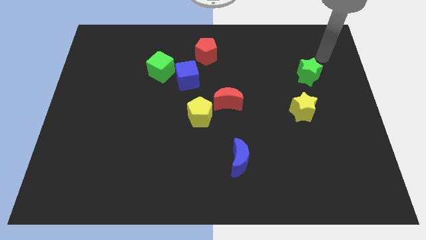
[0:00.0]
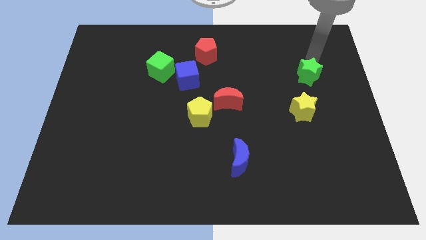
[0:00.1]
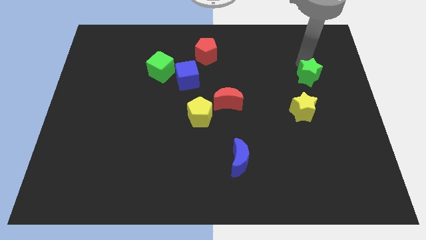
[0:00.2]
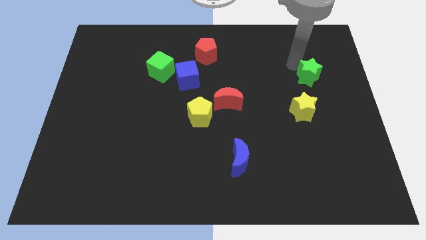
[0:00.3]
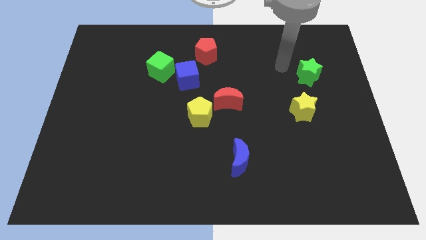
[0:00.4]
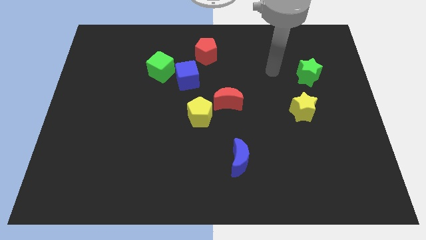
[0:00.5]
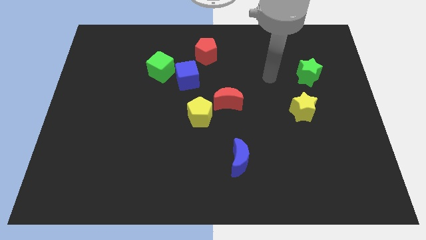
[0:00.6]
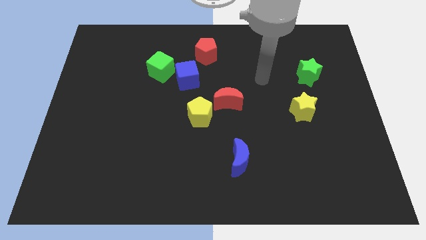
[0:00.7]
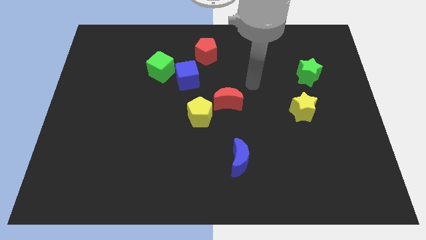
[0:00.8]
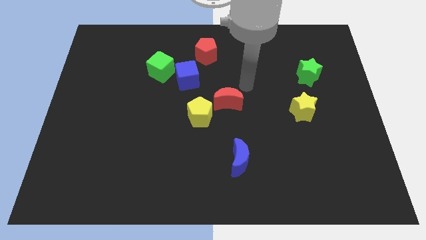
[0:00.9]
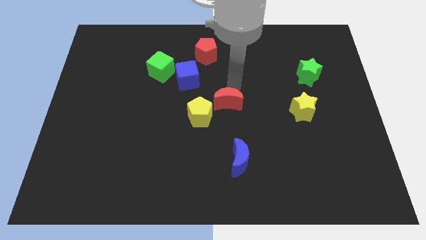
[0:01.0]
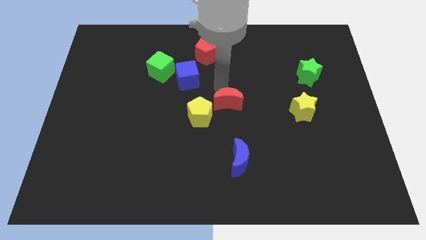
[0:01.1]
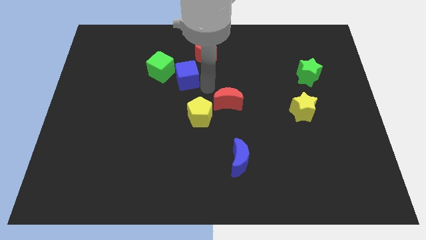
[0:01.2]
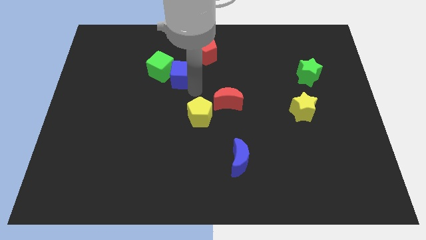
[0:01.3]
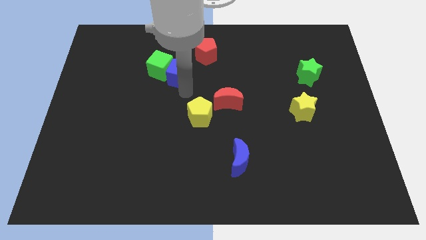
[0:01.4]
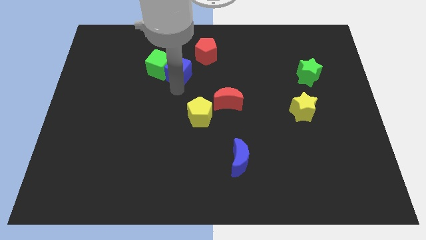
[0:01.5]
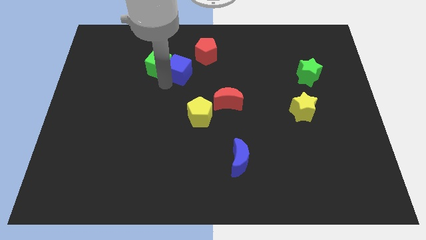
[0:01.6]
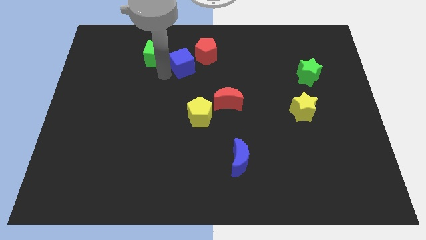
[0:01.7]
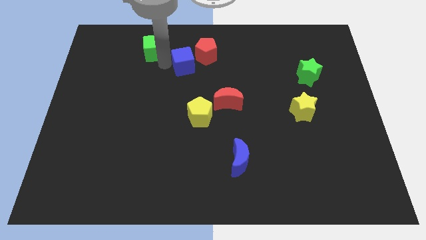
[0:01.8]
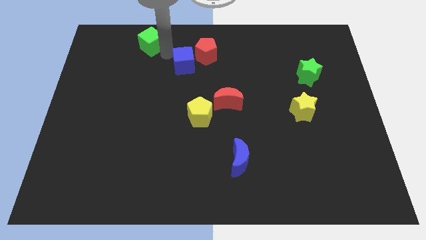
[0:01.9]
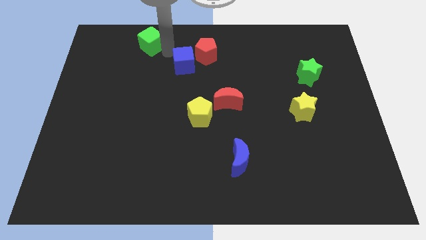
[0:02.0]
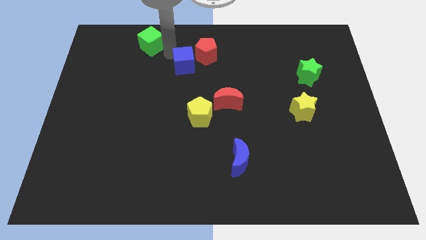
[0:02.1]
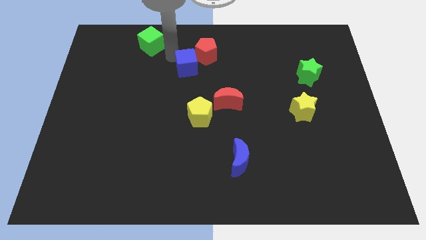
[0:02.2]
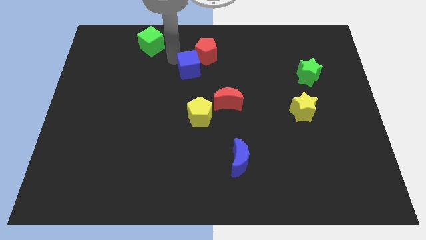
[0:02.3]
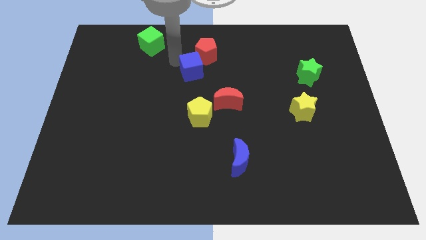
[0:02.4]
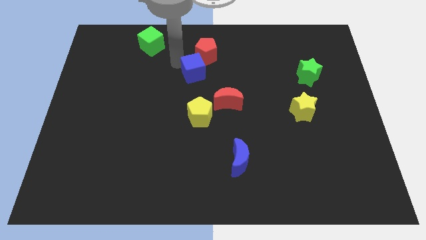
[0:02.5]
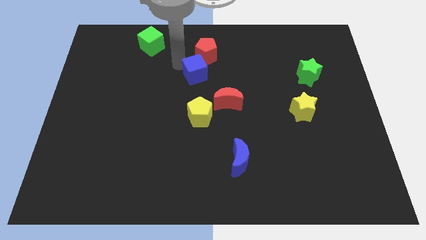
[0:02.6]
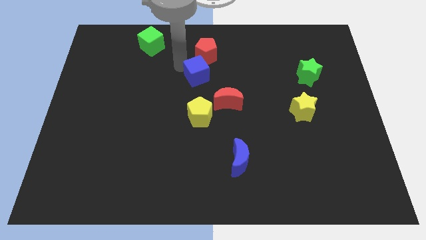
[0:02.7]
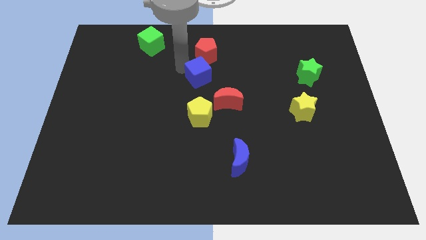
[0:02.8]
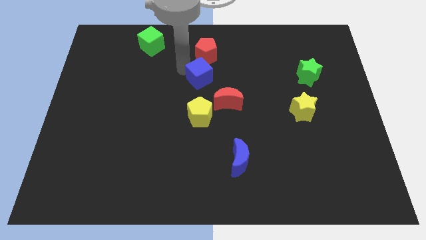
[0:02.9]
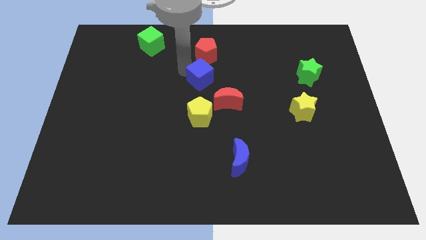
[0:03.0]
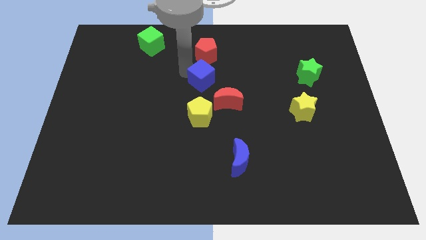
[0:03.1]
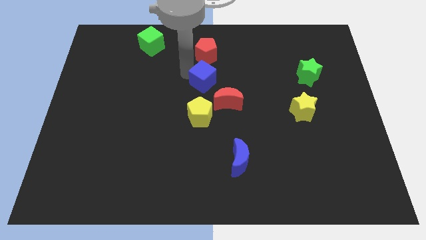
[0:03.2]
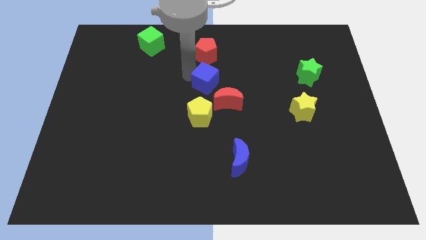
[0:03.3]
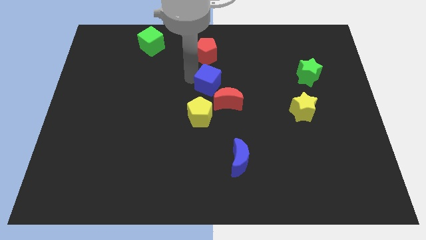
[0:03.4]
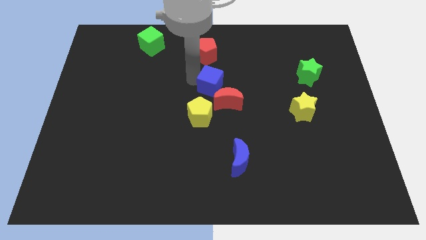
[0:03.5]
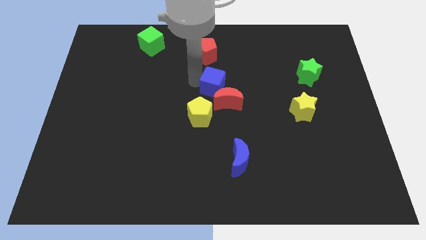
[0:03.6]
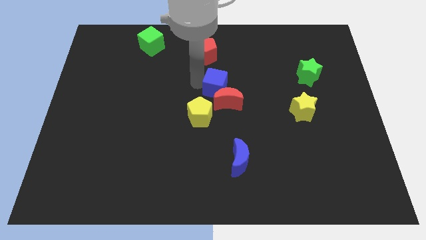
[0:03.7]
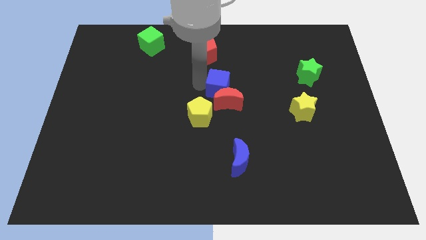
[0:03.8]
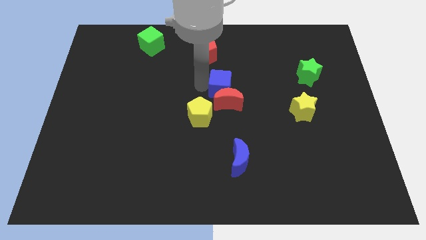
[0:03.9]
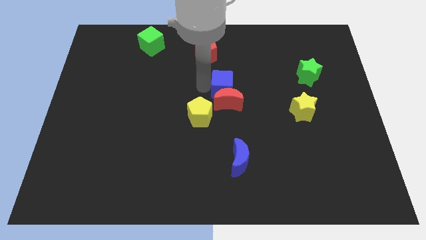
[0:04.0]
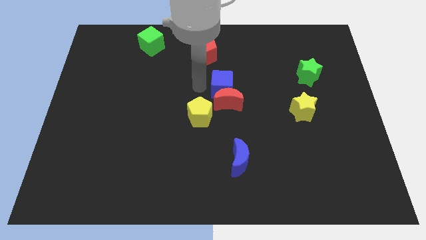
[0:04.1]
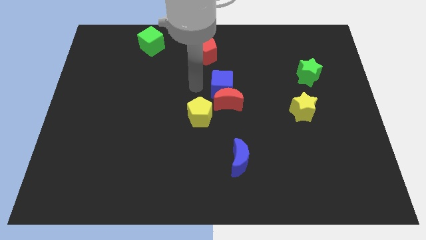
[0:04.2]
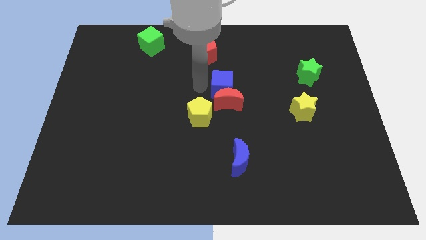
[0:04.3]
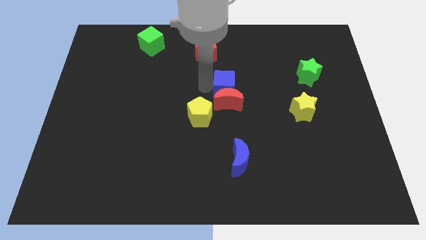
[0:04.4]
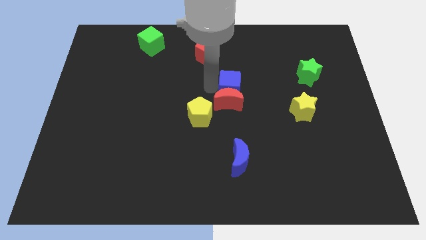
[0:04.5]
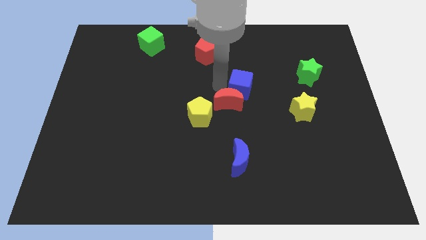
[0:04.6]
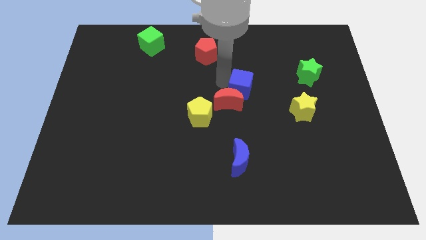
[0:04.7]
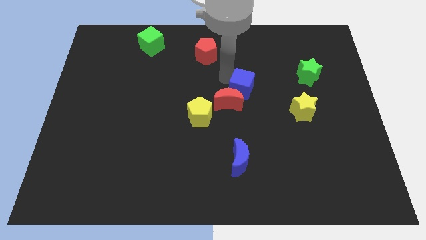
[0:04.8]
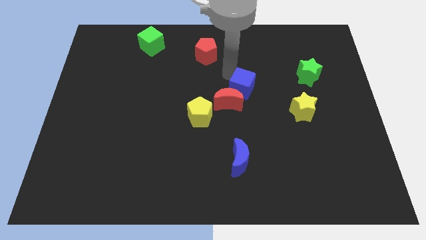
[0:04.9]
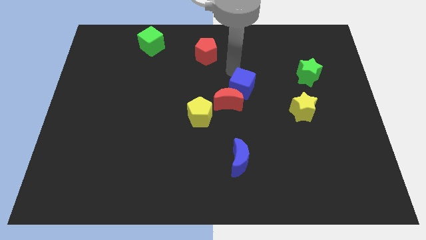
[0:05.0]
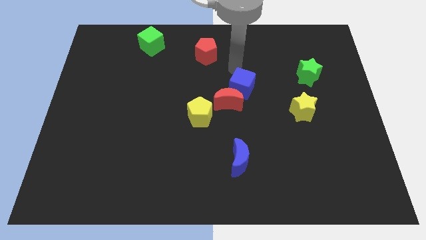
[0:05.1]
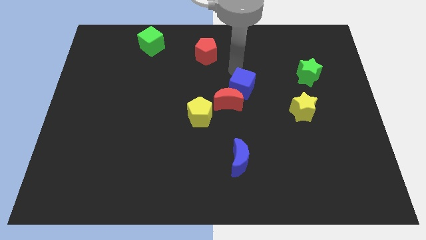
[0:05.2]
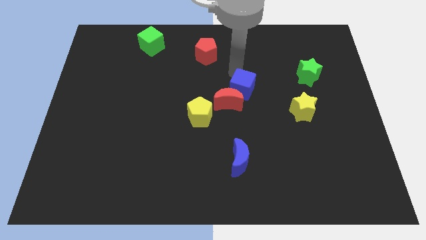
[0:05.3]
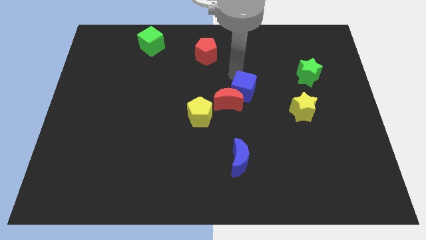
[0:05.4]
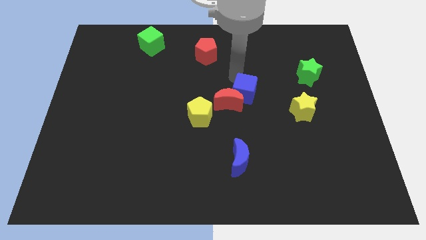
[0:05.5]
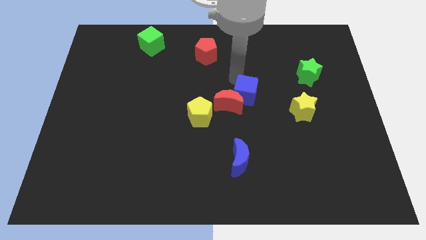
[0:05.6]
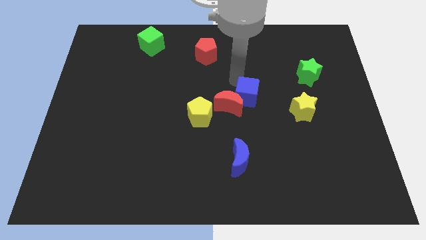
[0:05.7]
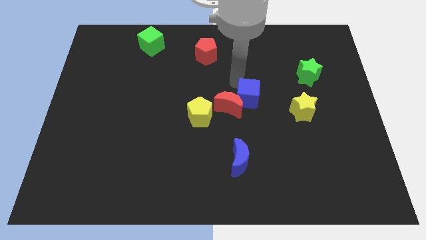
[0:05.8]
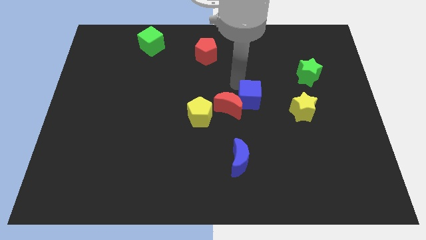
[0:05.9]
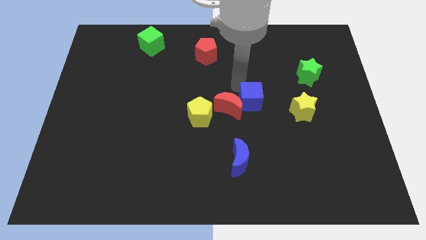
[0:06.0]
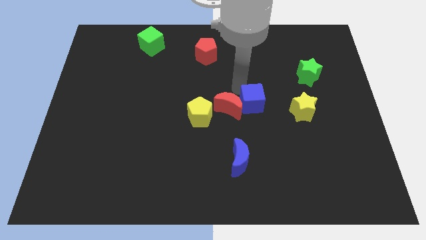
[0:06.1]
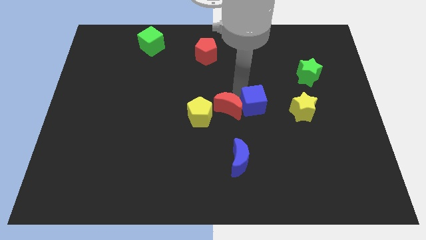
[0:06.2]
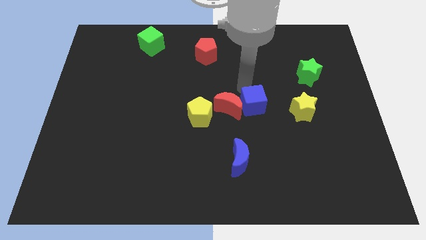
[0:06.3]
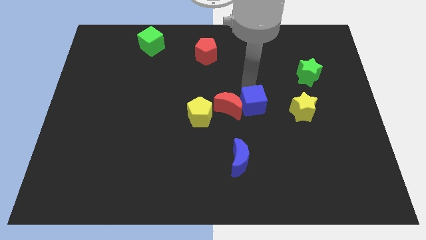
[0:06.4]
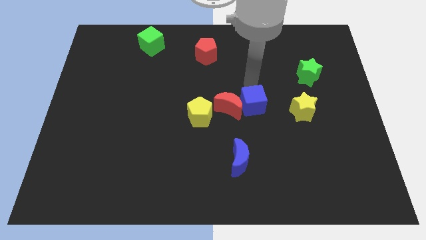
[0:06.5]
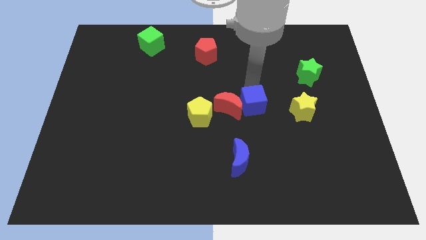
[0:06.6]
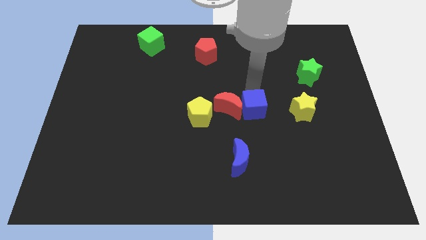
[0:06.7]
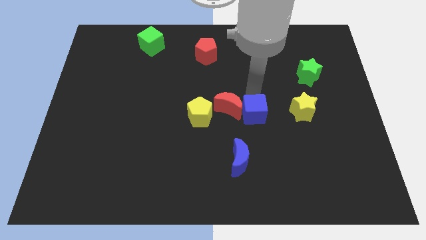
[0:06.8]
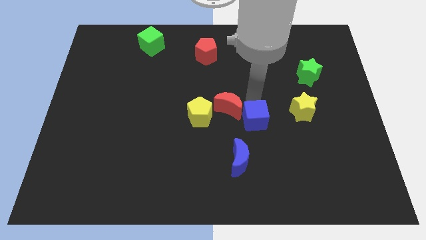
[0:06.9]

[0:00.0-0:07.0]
push the blue cube downwards and to the right

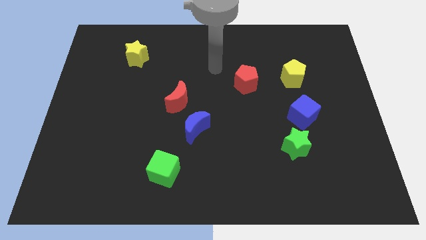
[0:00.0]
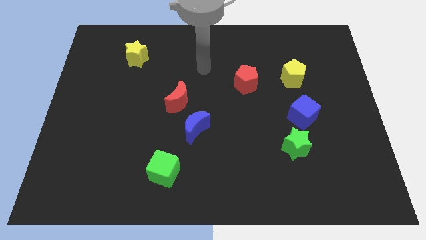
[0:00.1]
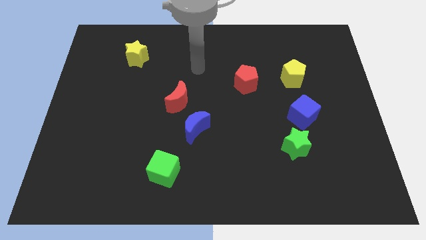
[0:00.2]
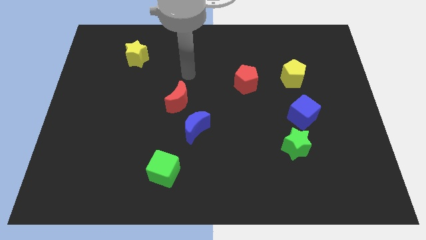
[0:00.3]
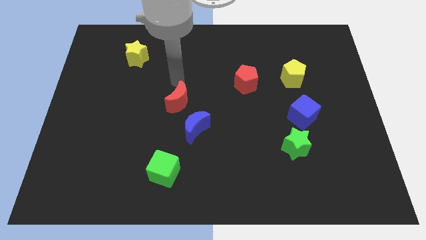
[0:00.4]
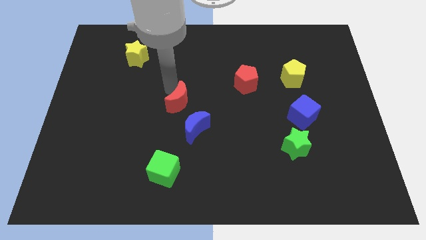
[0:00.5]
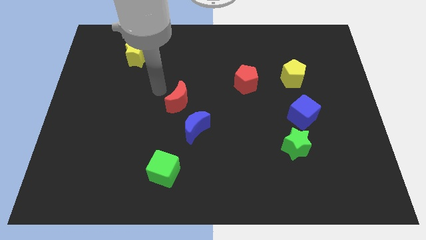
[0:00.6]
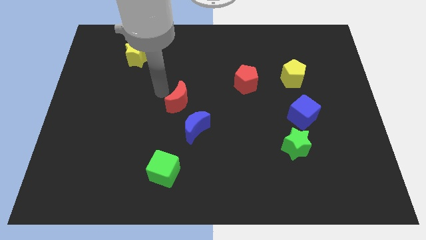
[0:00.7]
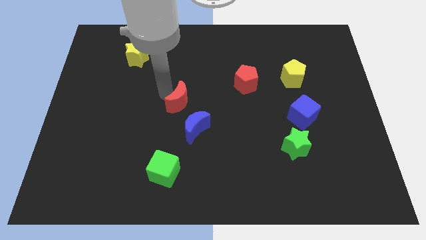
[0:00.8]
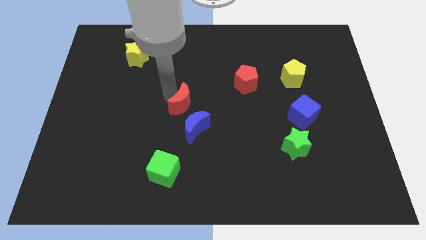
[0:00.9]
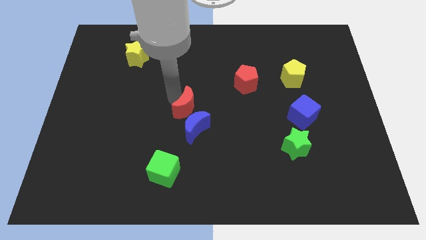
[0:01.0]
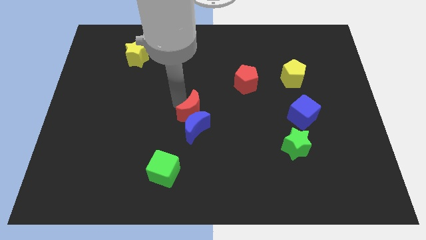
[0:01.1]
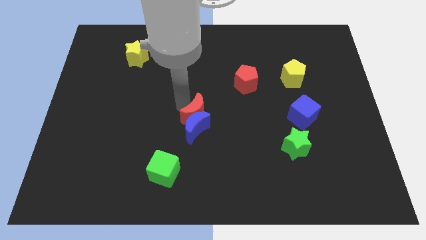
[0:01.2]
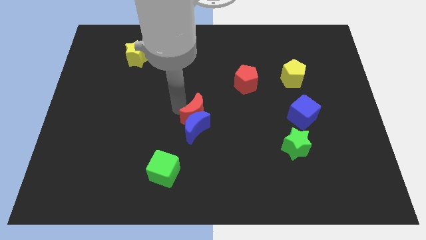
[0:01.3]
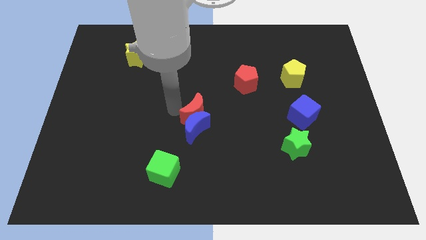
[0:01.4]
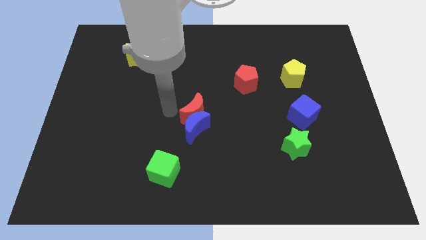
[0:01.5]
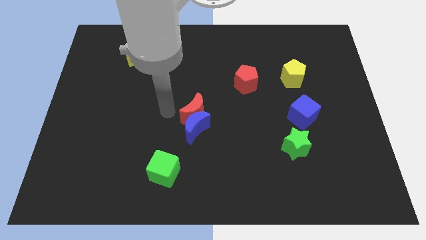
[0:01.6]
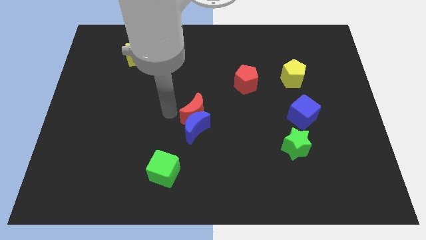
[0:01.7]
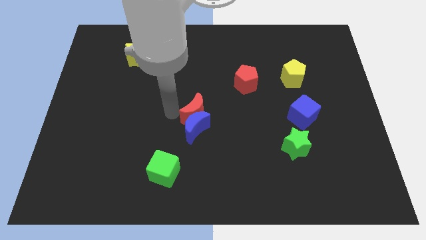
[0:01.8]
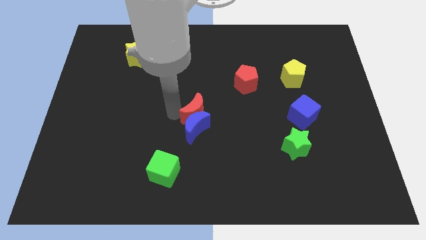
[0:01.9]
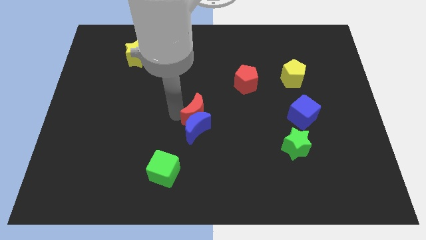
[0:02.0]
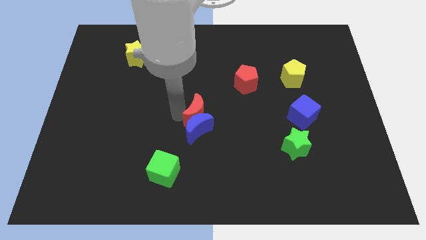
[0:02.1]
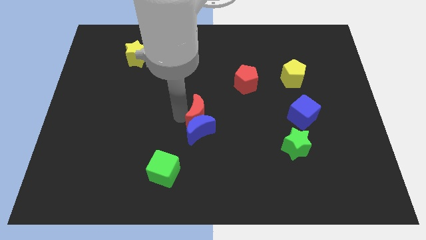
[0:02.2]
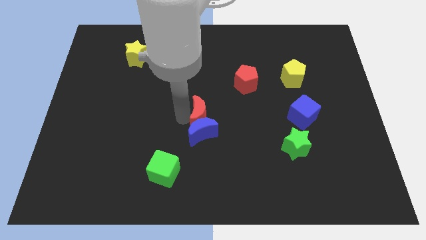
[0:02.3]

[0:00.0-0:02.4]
slightly move the red moon diagonally down and right
